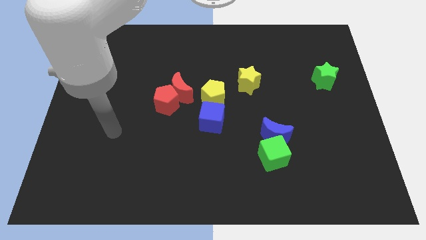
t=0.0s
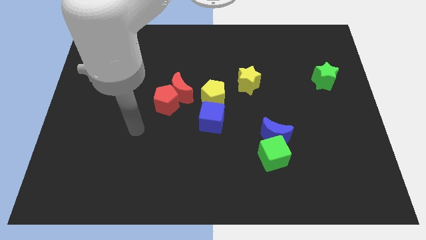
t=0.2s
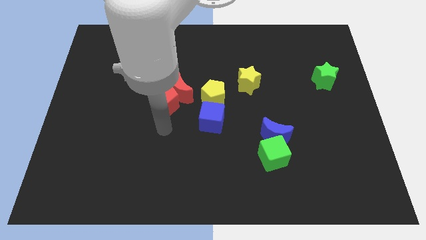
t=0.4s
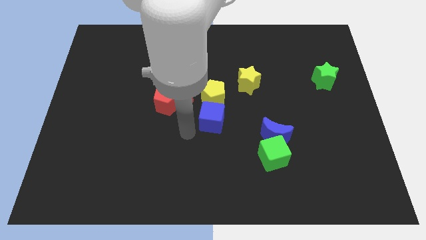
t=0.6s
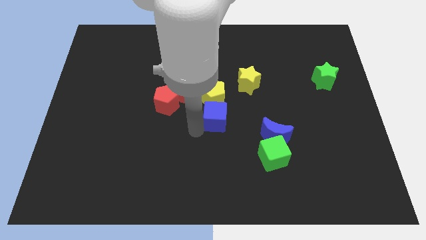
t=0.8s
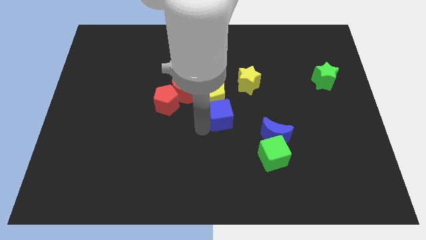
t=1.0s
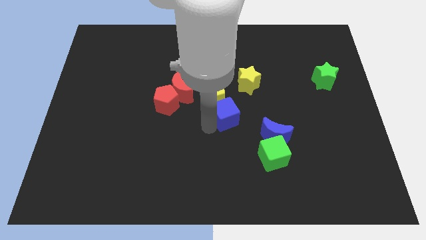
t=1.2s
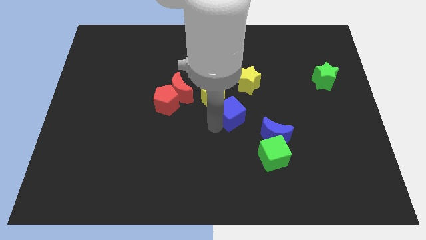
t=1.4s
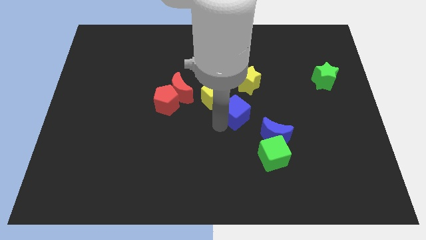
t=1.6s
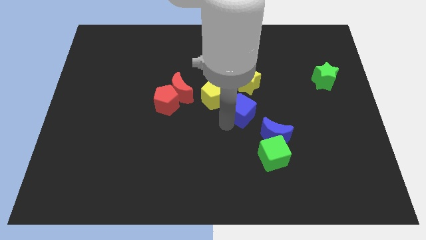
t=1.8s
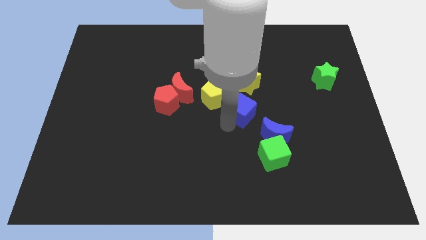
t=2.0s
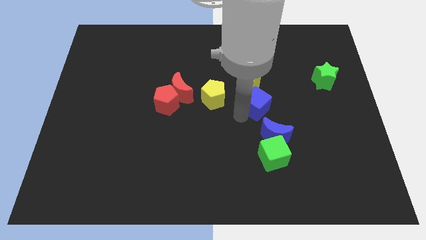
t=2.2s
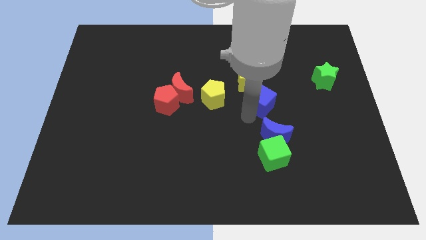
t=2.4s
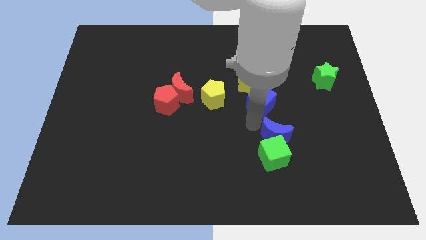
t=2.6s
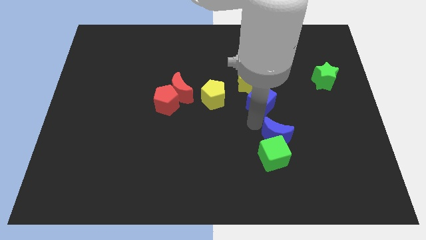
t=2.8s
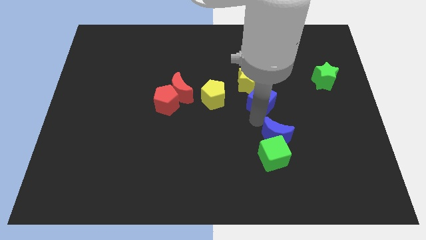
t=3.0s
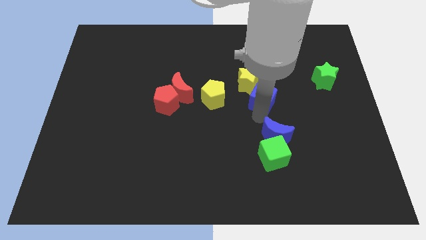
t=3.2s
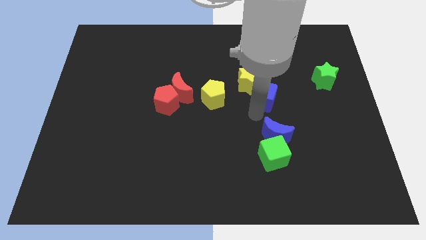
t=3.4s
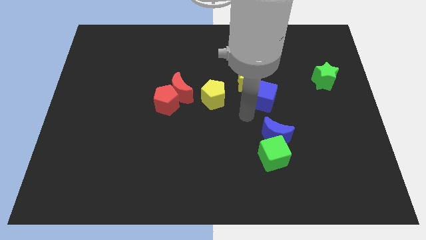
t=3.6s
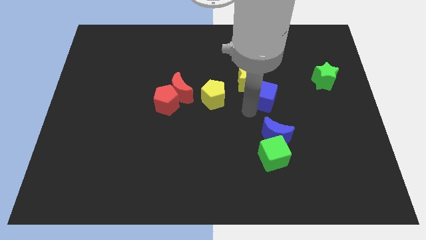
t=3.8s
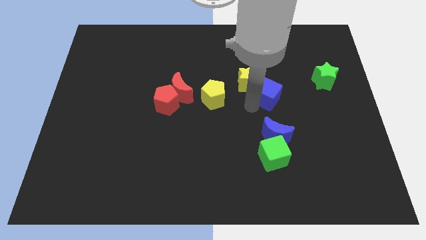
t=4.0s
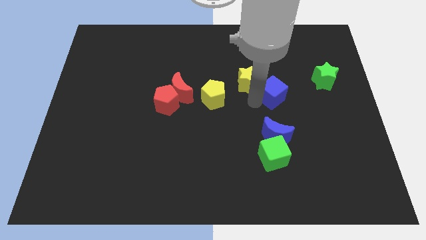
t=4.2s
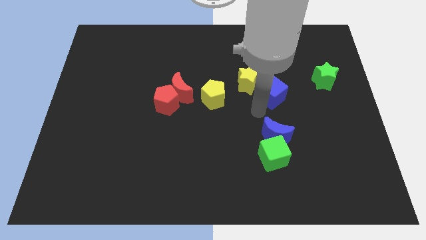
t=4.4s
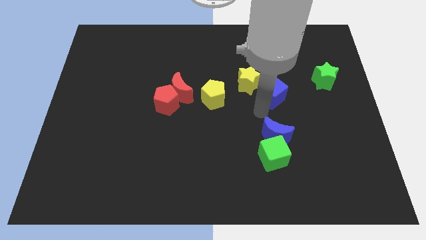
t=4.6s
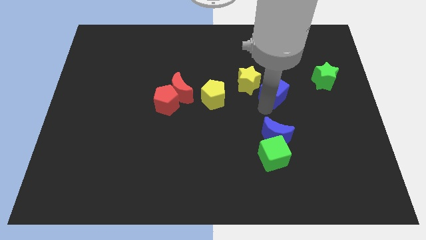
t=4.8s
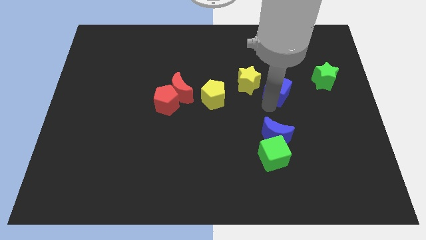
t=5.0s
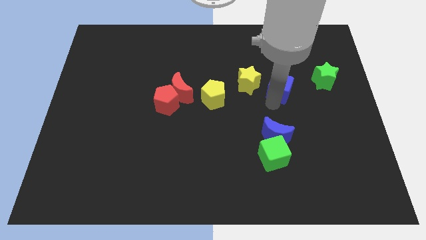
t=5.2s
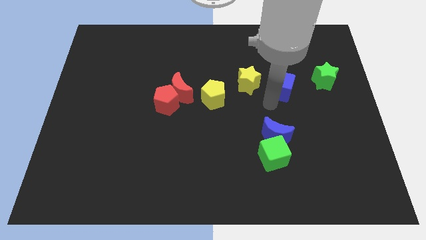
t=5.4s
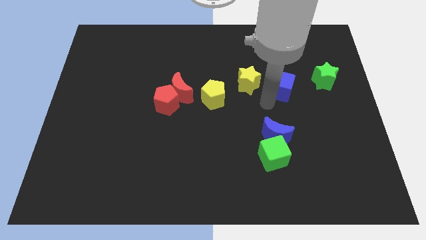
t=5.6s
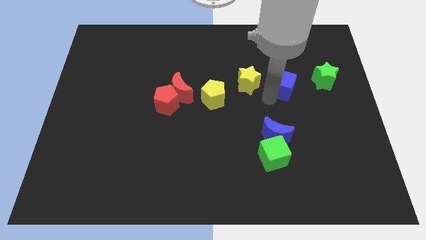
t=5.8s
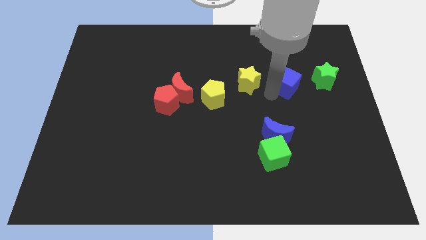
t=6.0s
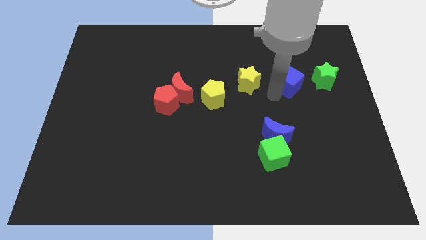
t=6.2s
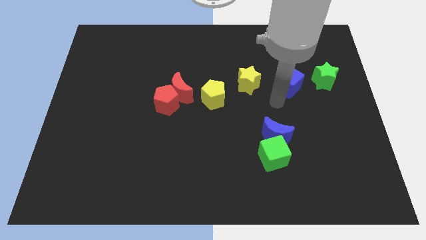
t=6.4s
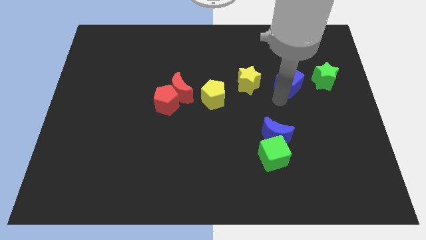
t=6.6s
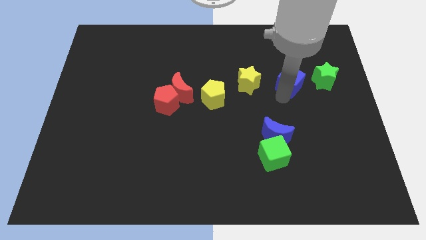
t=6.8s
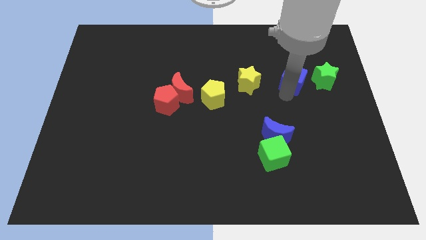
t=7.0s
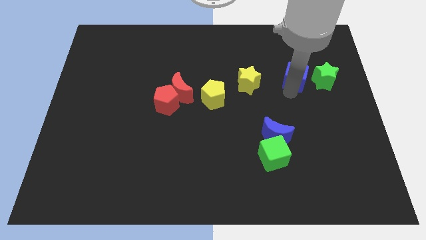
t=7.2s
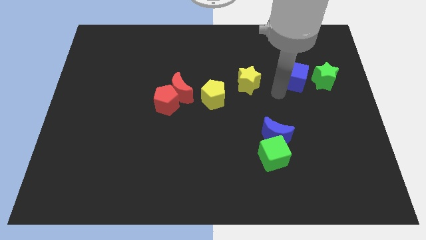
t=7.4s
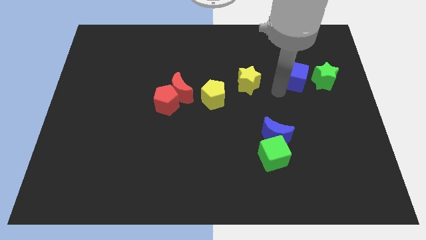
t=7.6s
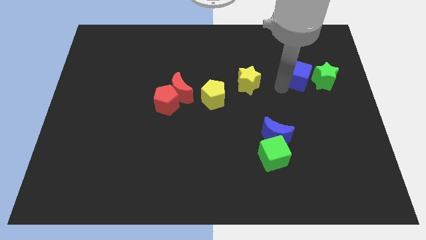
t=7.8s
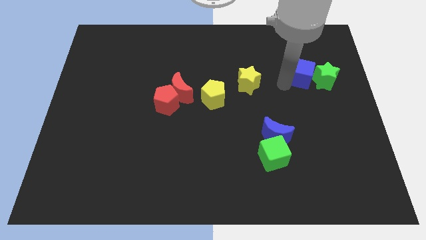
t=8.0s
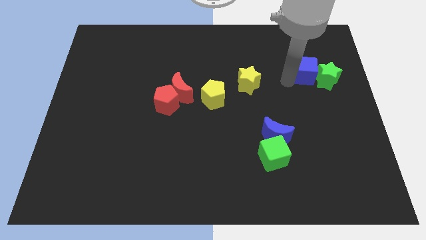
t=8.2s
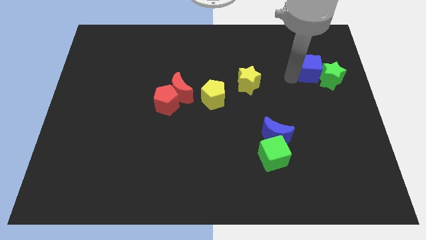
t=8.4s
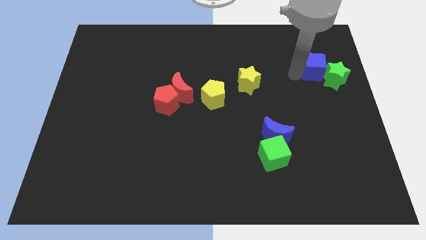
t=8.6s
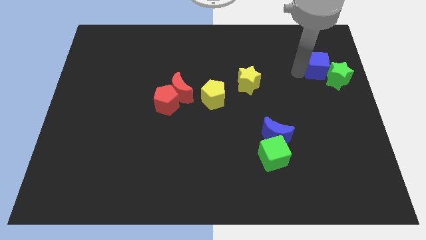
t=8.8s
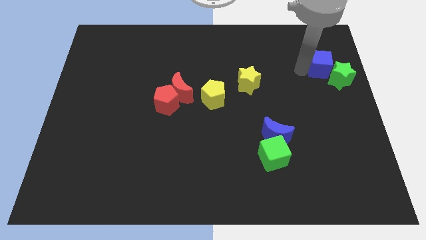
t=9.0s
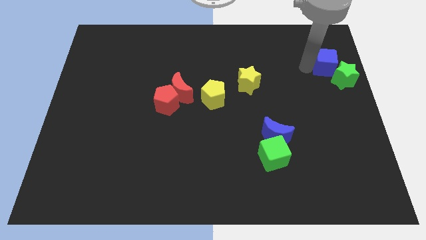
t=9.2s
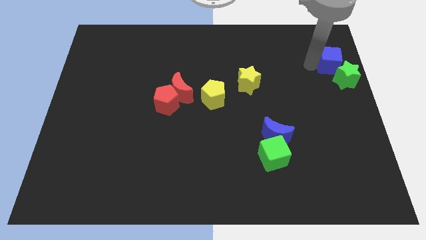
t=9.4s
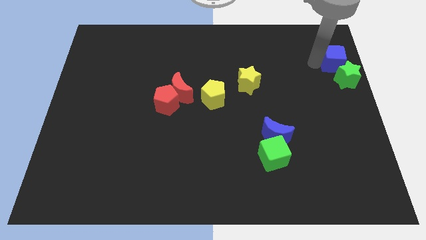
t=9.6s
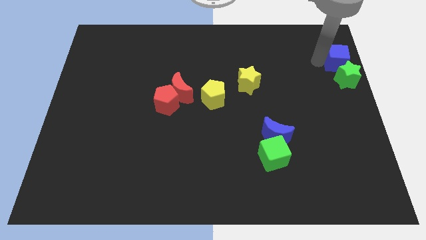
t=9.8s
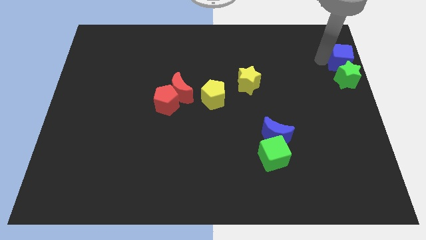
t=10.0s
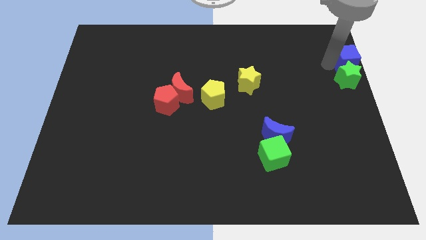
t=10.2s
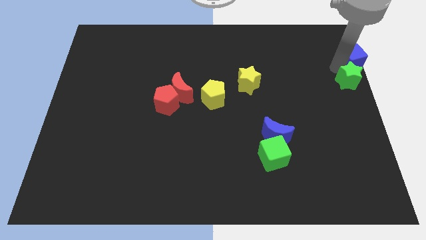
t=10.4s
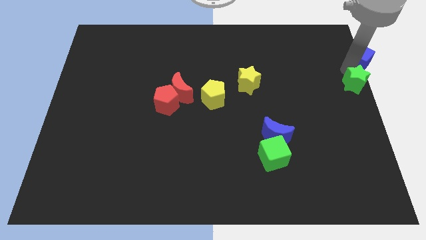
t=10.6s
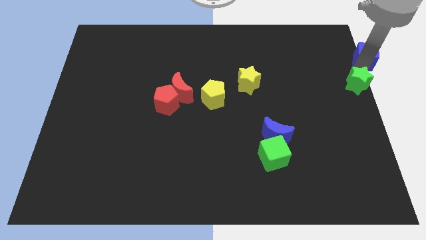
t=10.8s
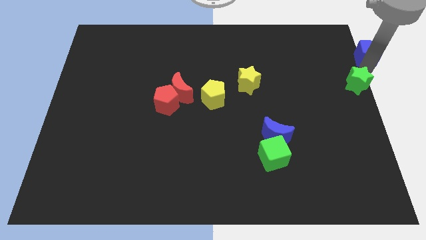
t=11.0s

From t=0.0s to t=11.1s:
move the blue cube to the top right corner

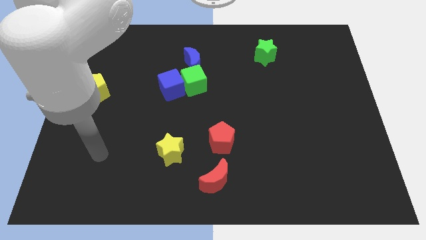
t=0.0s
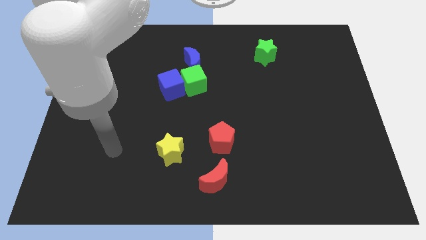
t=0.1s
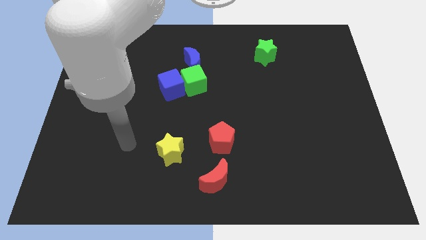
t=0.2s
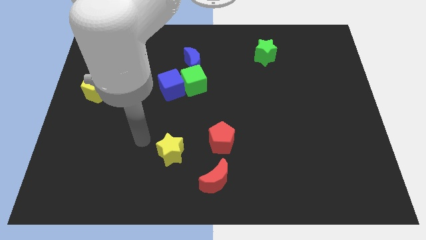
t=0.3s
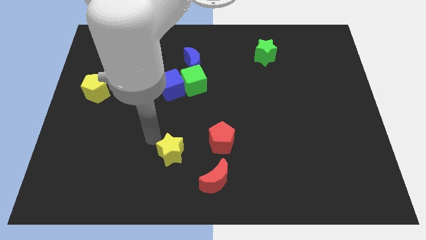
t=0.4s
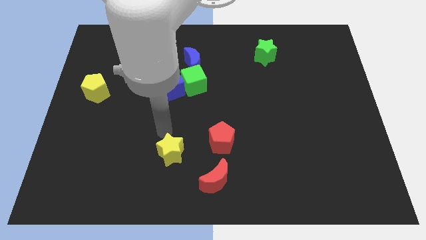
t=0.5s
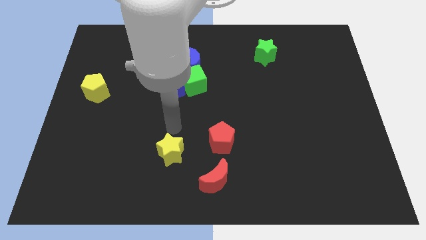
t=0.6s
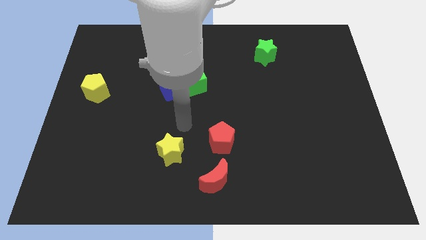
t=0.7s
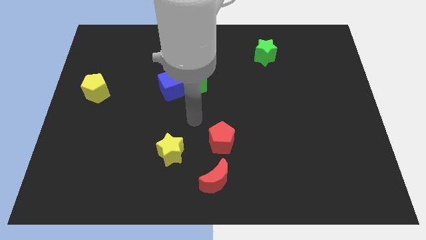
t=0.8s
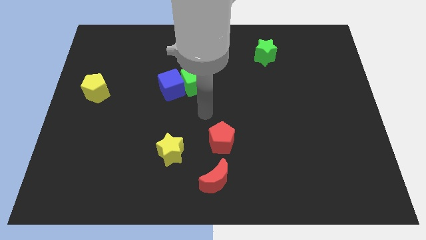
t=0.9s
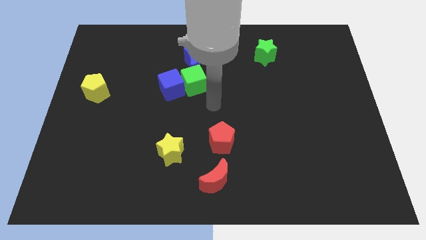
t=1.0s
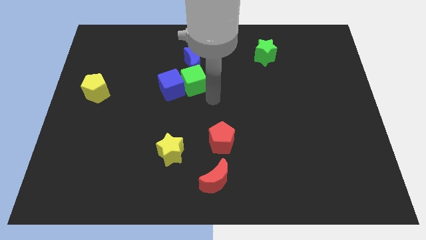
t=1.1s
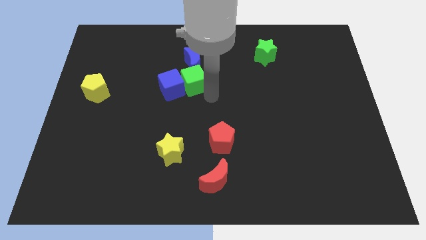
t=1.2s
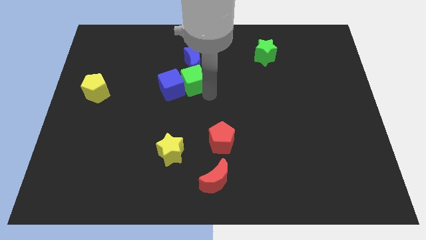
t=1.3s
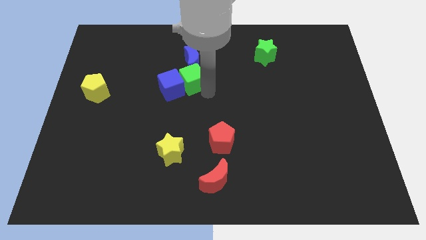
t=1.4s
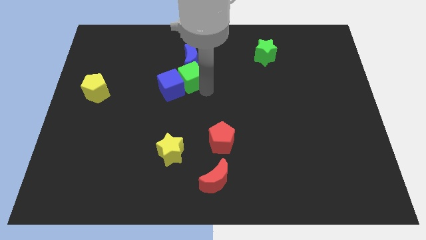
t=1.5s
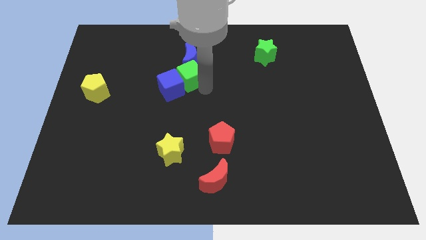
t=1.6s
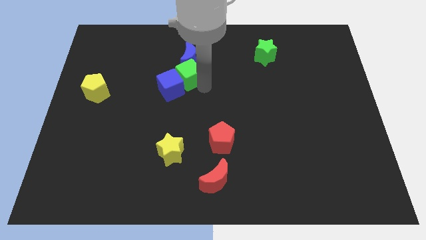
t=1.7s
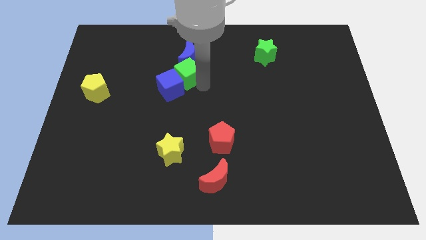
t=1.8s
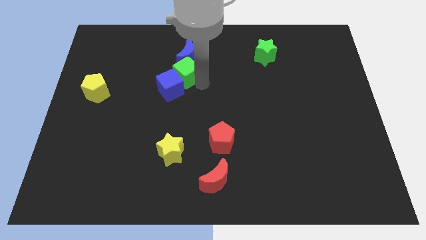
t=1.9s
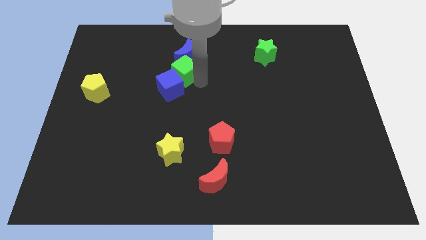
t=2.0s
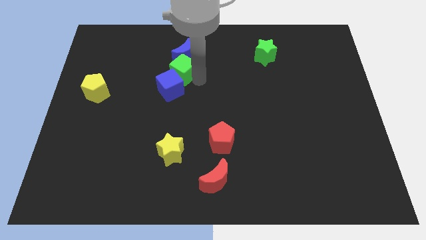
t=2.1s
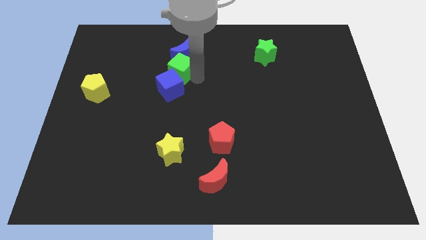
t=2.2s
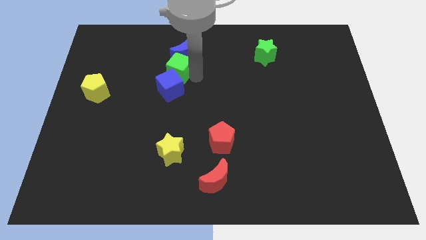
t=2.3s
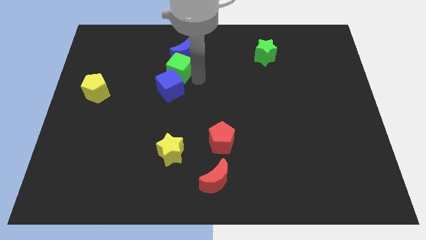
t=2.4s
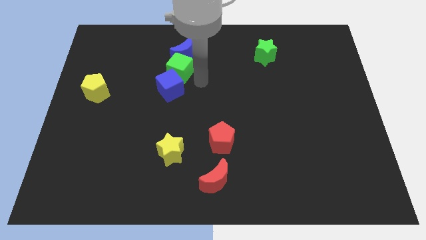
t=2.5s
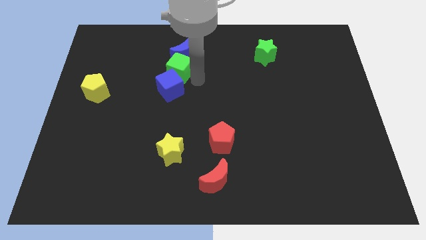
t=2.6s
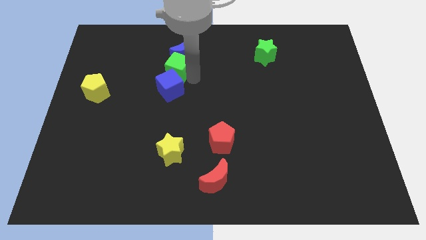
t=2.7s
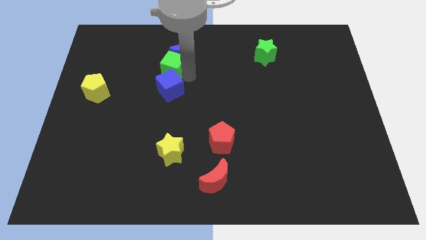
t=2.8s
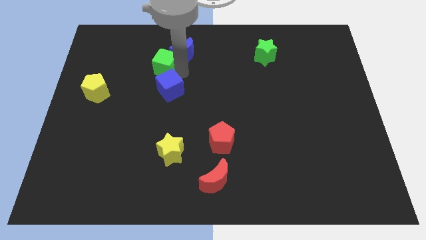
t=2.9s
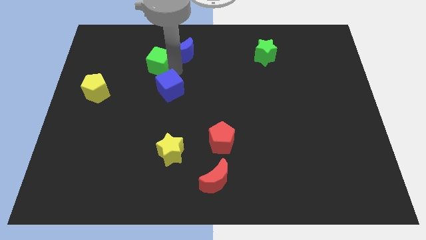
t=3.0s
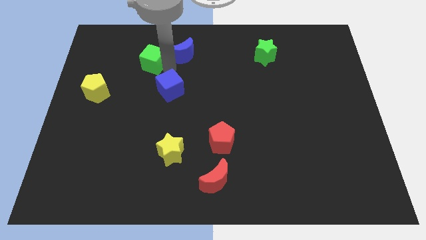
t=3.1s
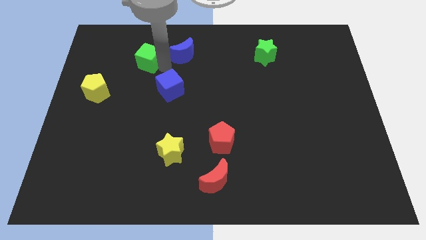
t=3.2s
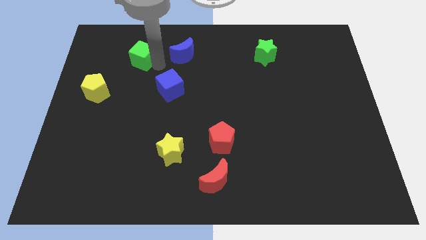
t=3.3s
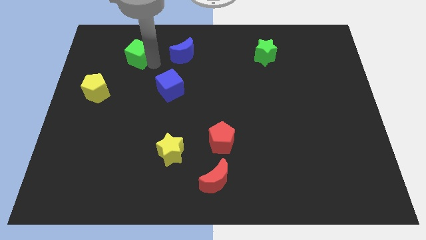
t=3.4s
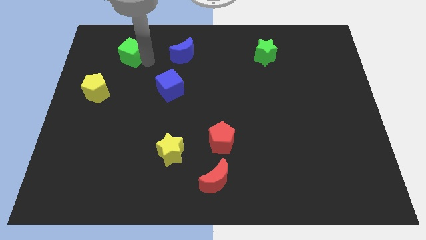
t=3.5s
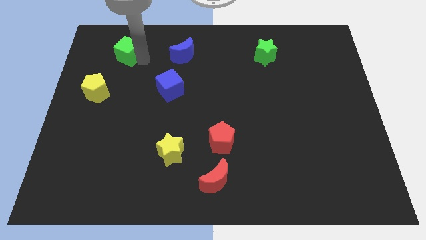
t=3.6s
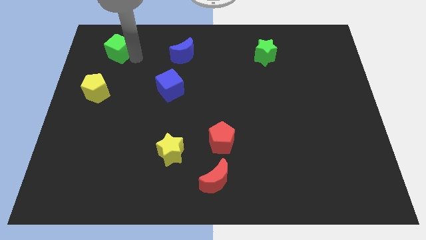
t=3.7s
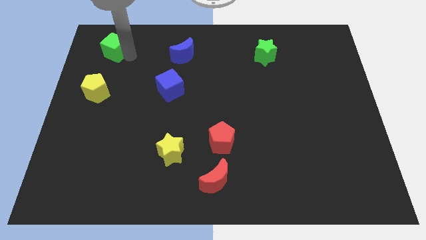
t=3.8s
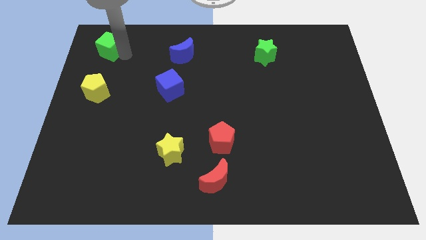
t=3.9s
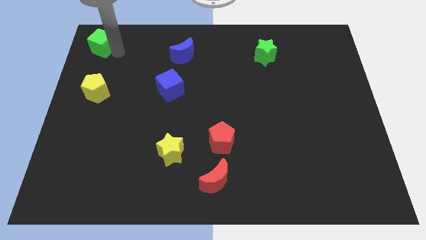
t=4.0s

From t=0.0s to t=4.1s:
push the green cube to the top left of the board
